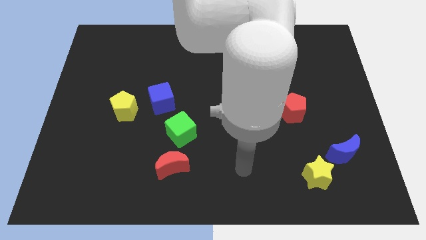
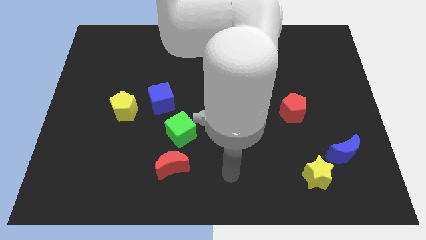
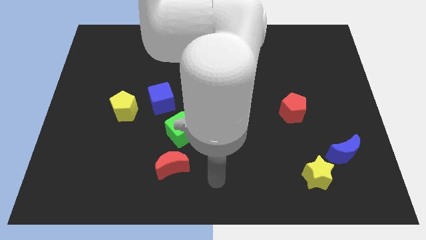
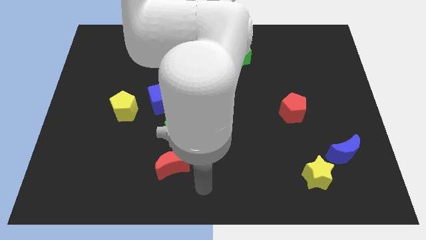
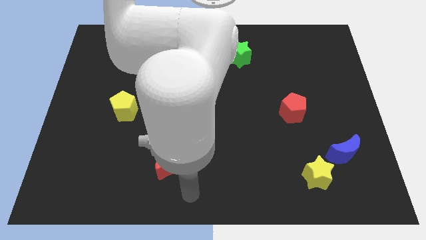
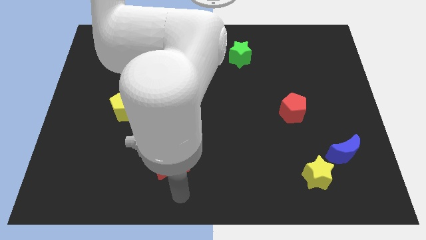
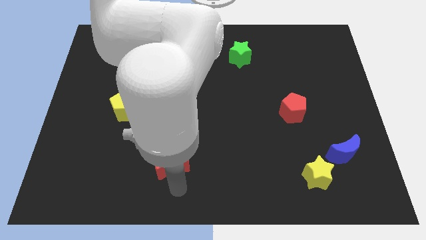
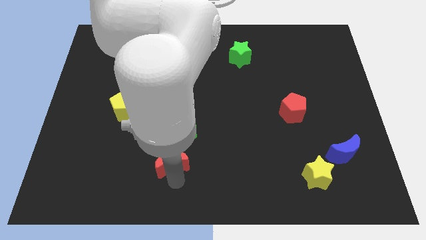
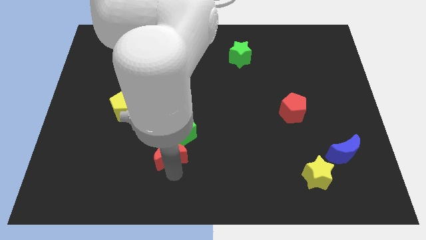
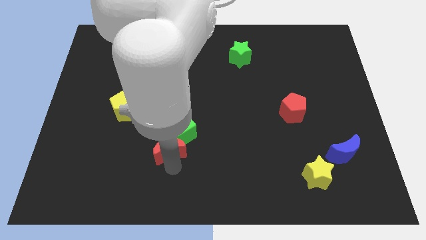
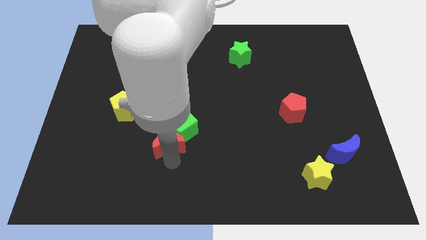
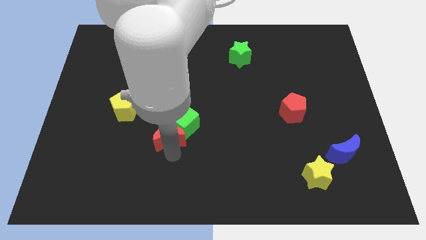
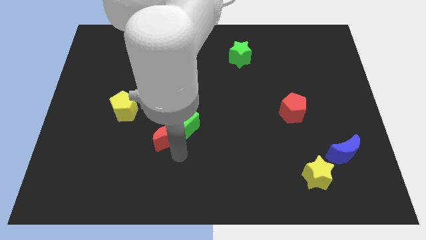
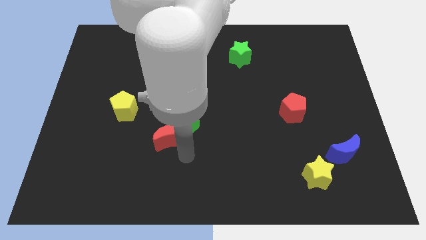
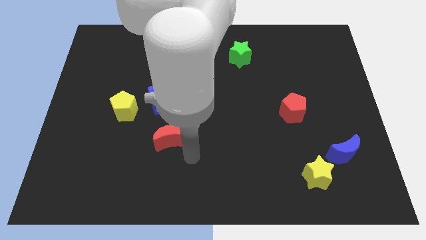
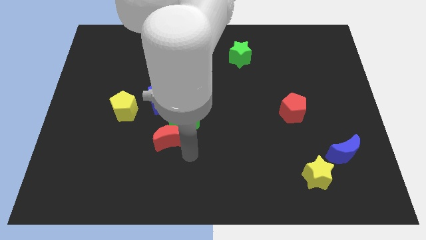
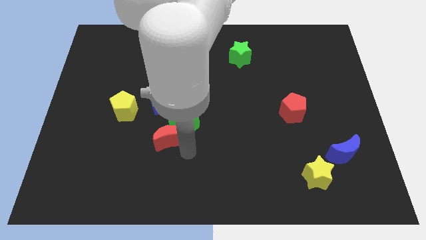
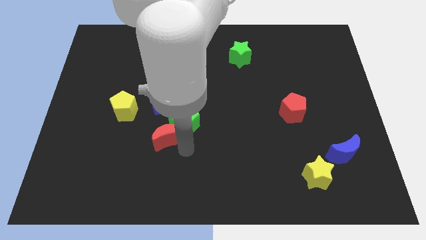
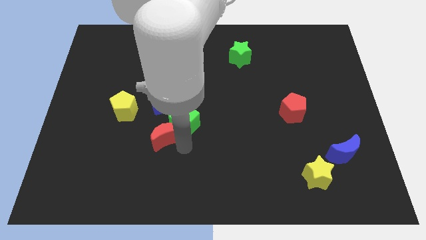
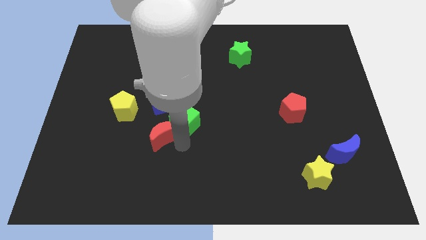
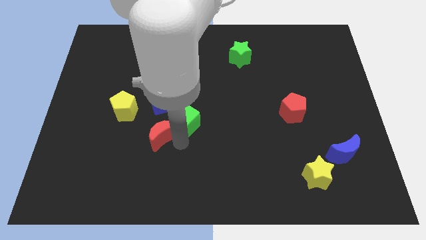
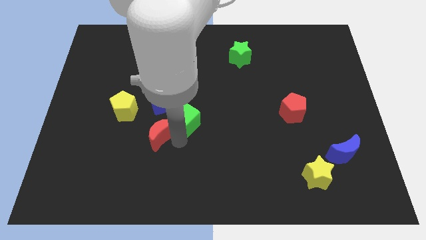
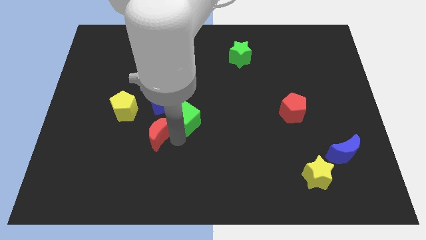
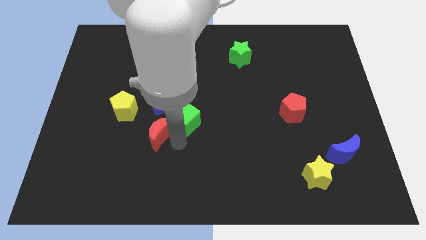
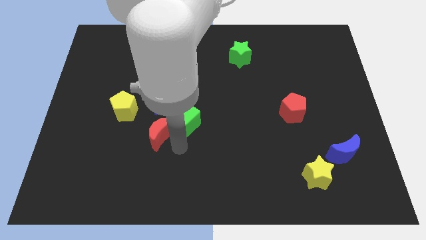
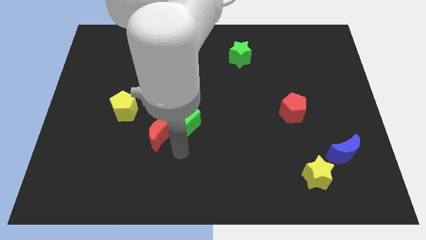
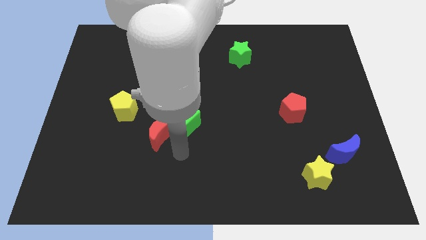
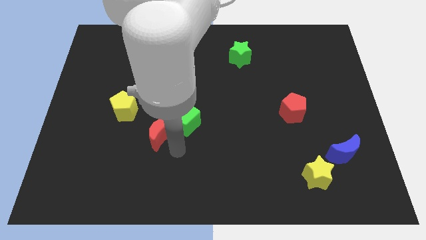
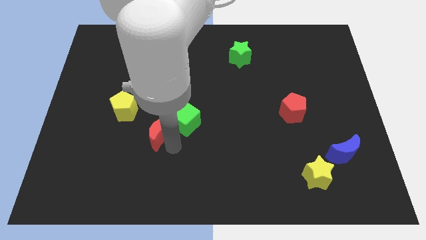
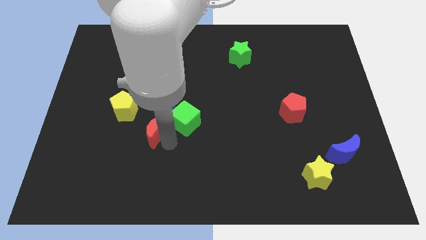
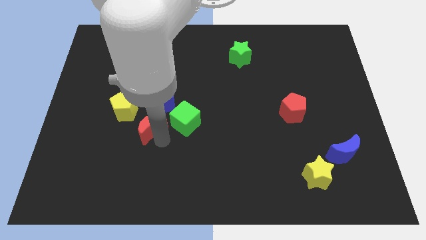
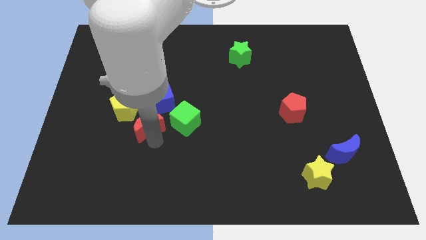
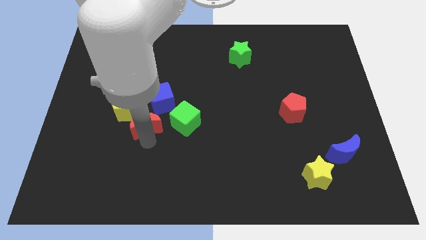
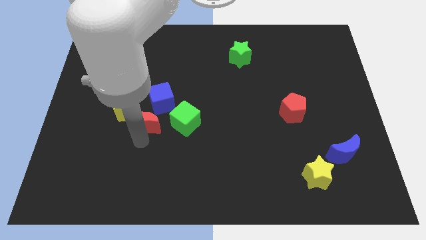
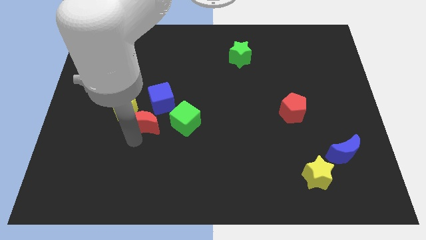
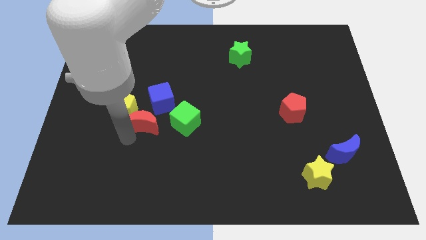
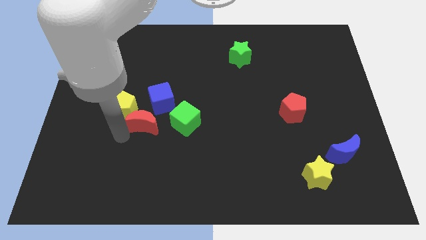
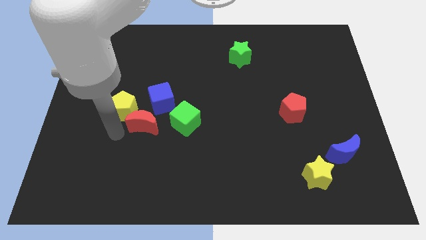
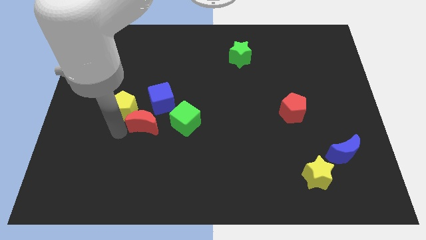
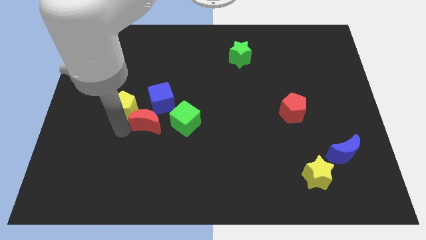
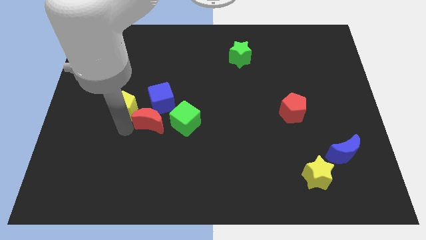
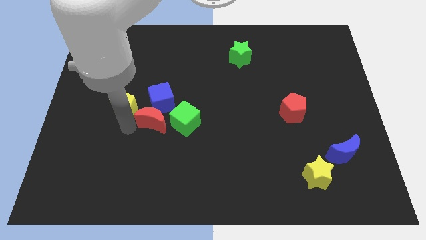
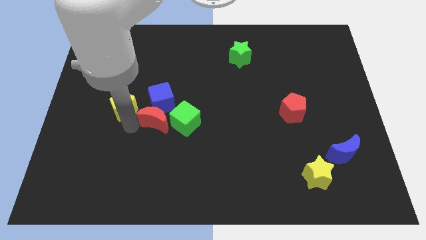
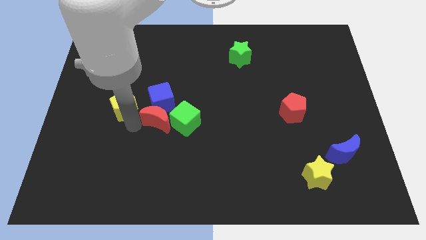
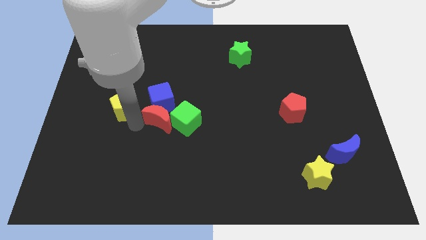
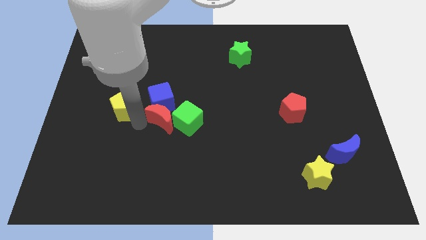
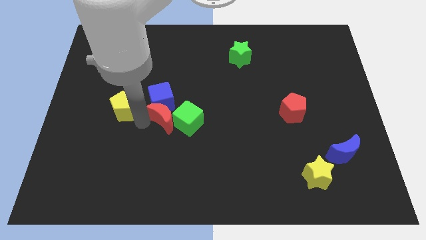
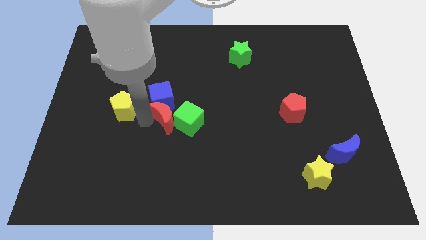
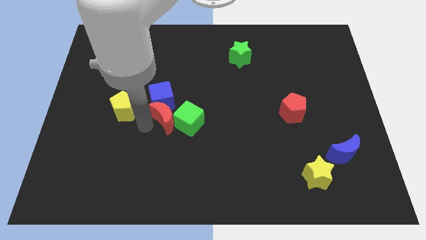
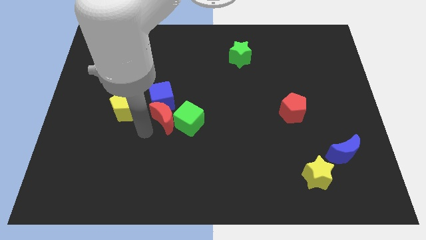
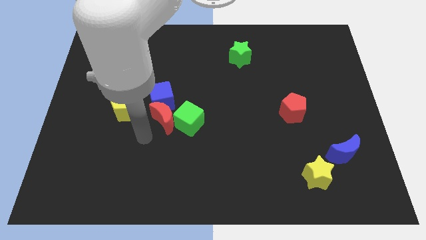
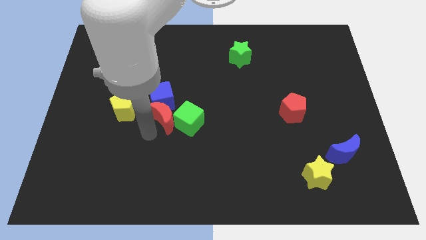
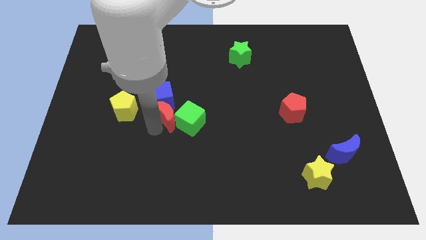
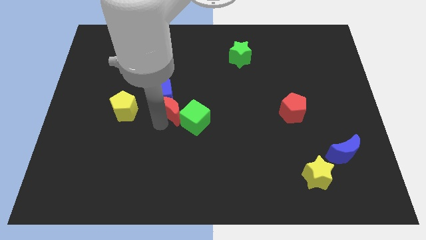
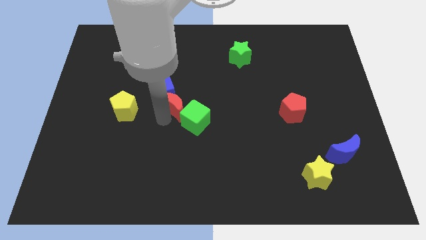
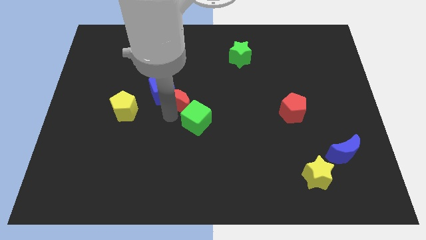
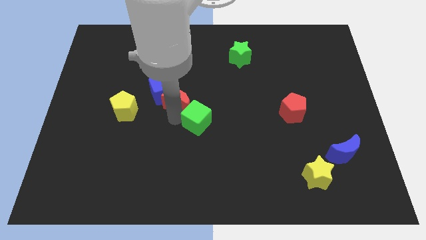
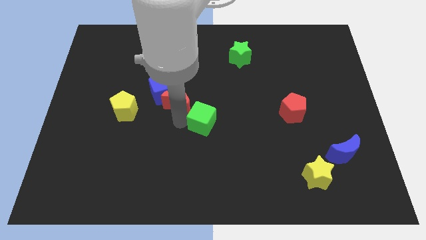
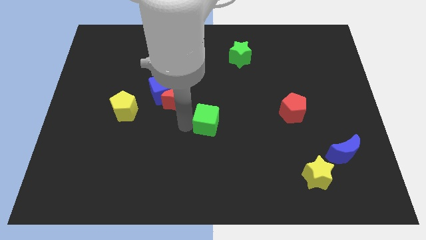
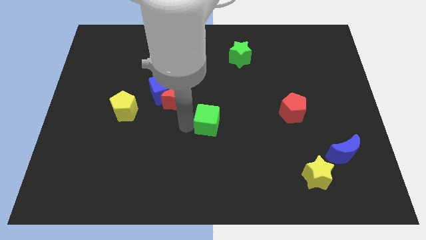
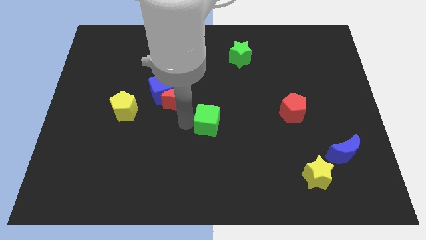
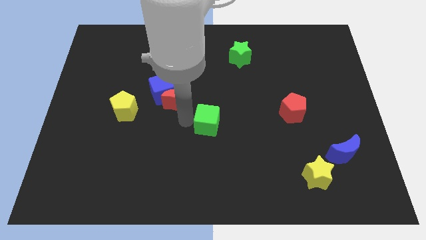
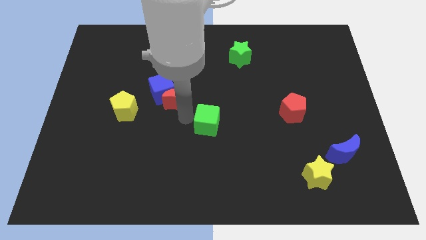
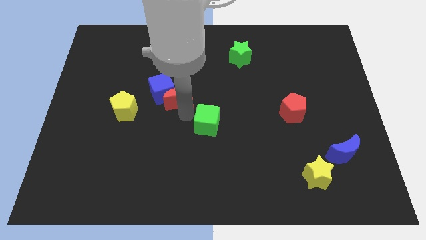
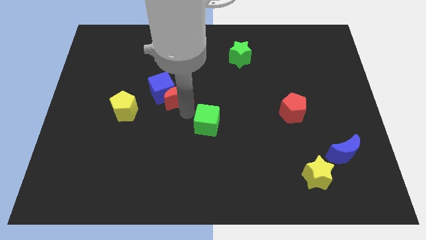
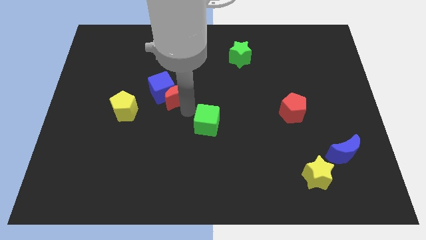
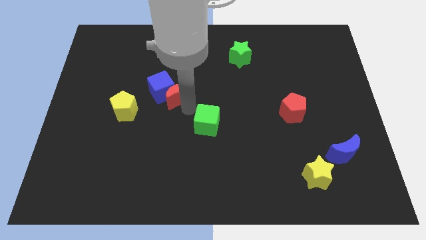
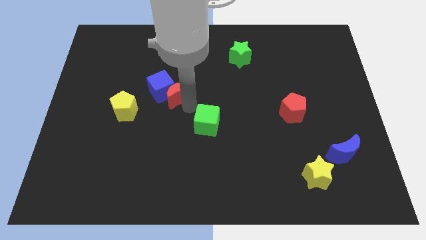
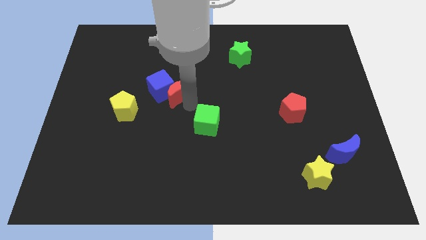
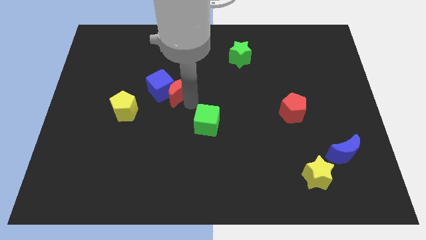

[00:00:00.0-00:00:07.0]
push the red moon upwards

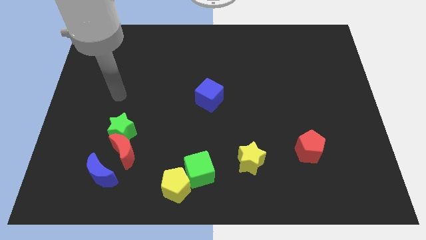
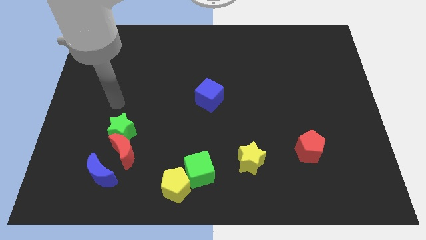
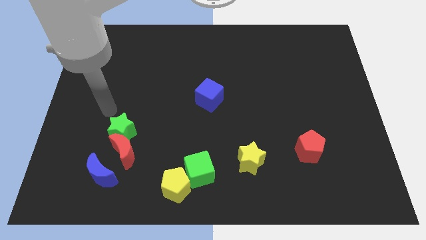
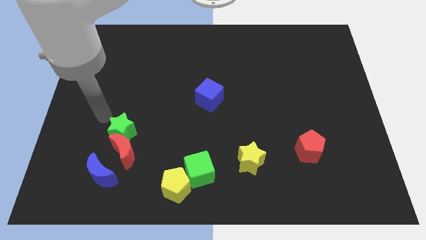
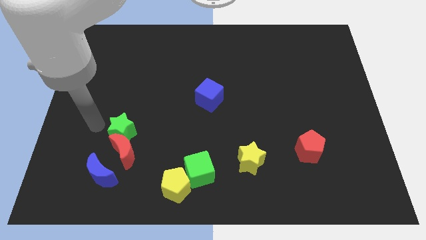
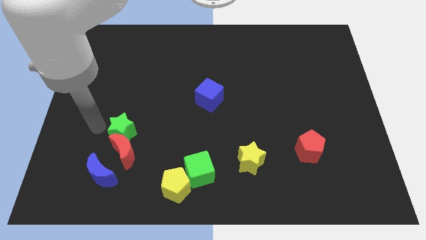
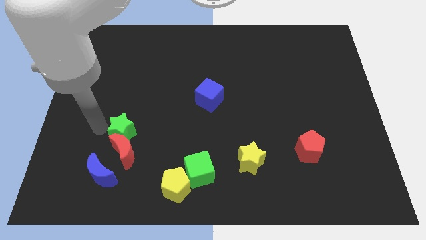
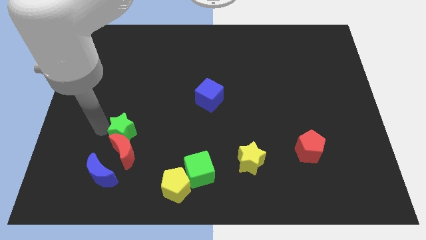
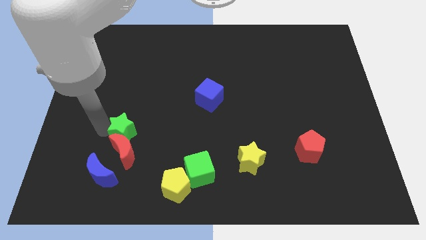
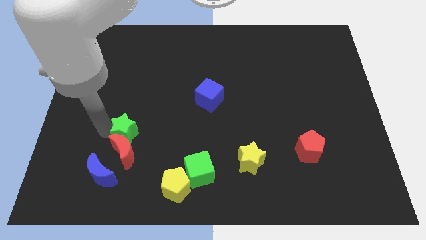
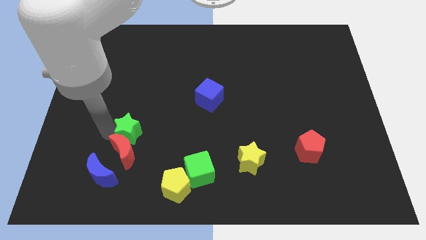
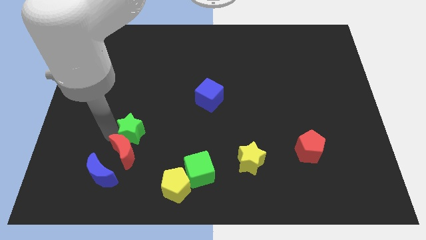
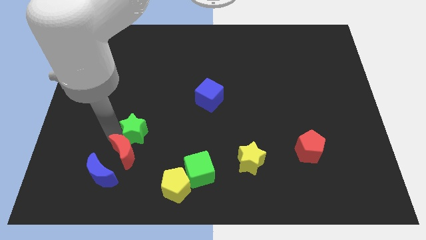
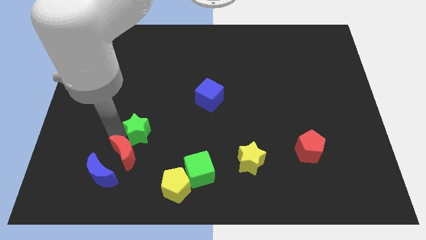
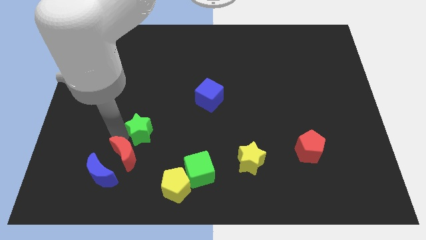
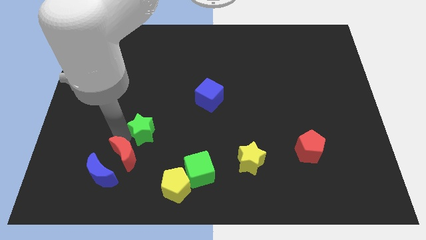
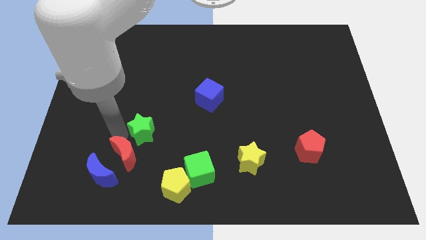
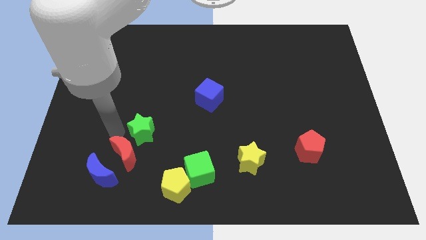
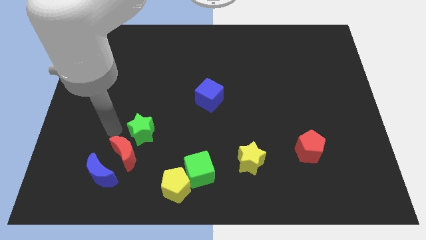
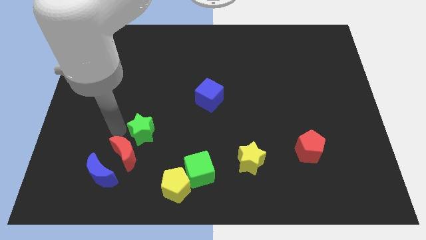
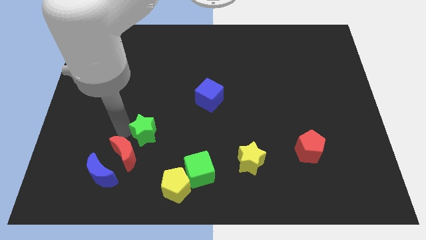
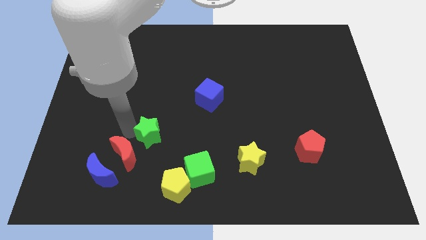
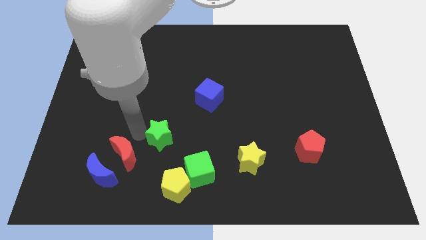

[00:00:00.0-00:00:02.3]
slide the green star a little bit to the right
